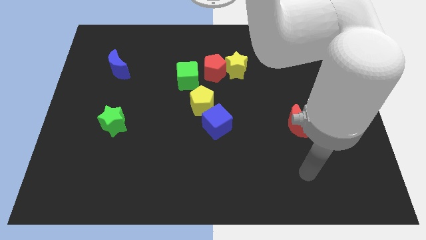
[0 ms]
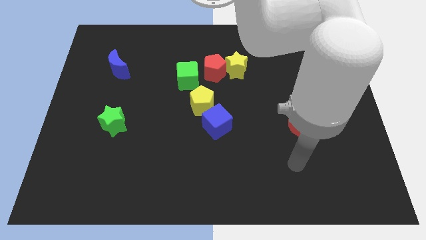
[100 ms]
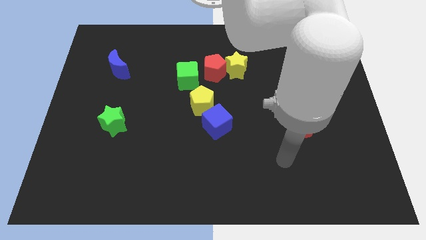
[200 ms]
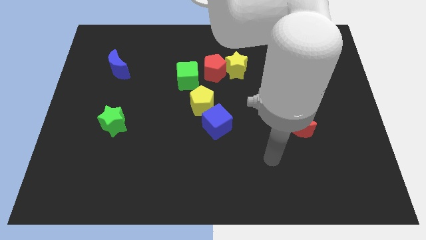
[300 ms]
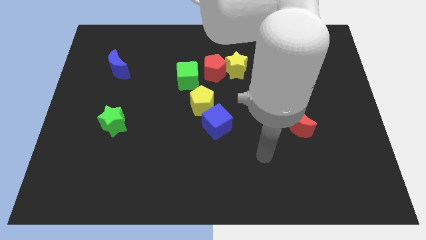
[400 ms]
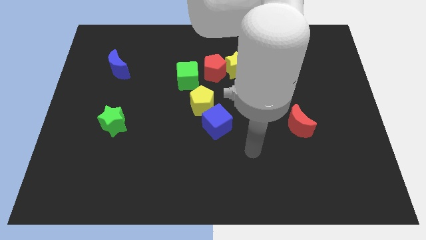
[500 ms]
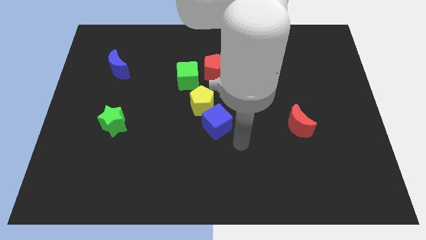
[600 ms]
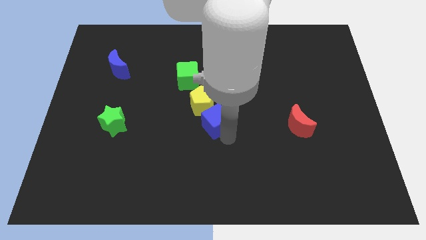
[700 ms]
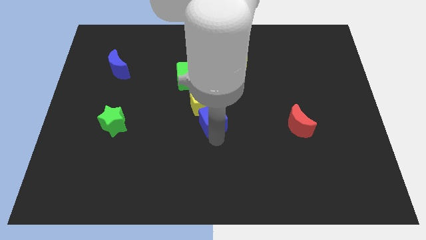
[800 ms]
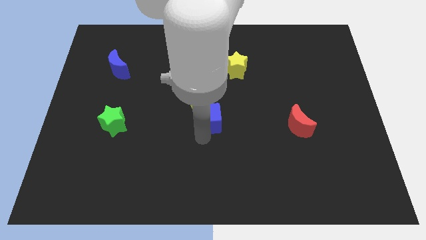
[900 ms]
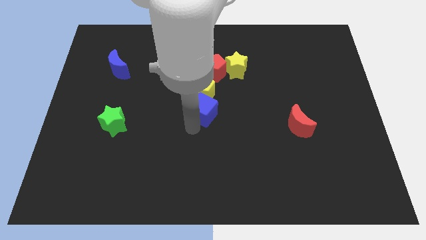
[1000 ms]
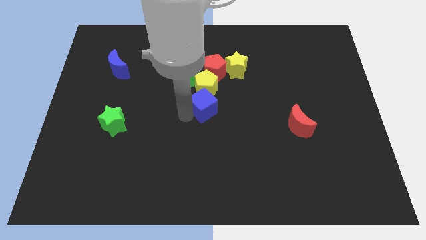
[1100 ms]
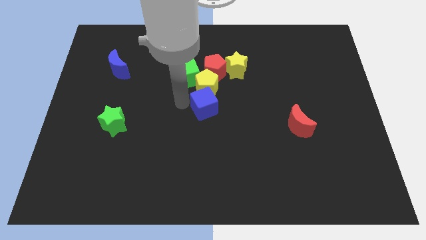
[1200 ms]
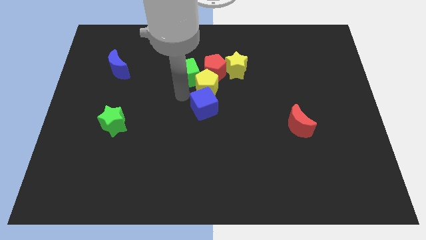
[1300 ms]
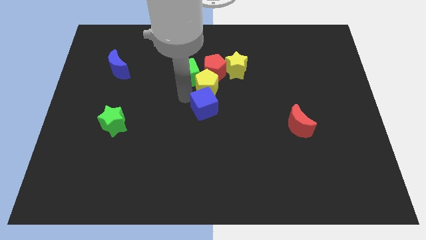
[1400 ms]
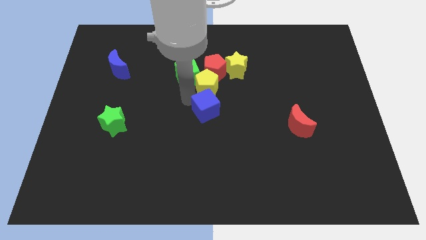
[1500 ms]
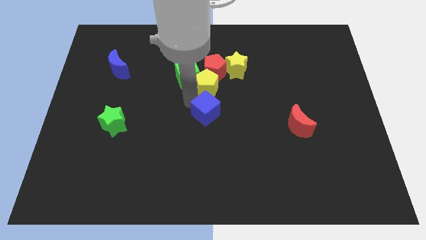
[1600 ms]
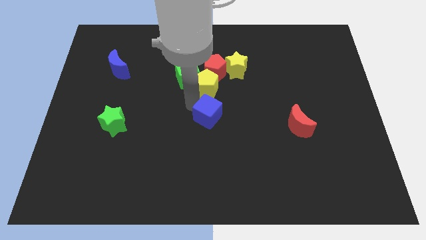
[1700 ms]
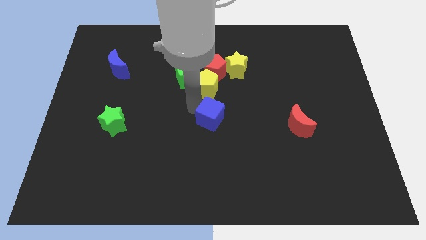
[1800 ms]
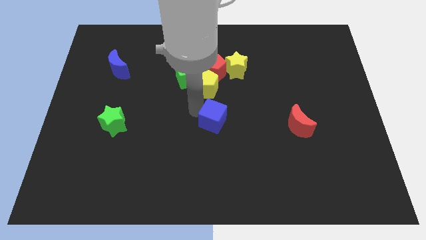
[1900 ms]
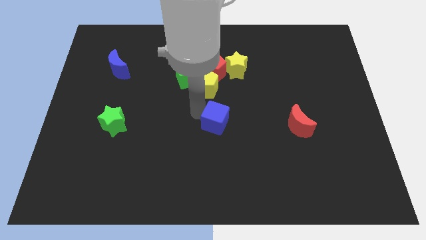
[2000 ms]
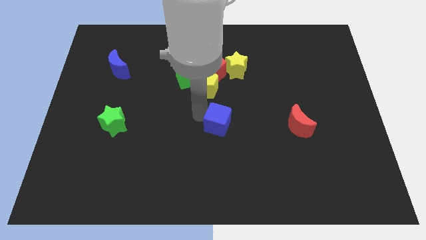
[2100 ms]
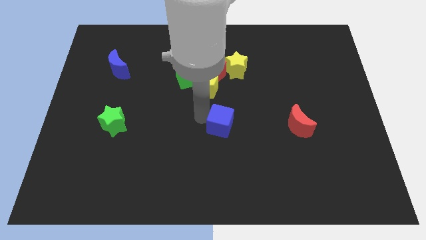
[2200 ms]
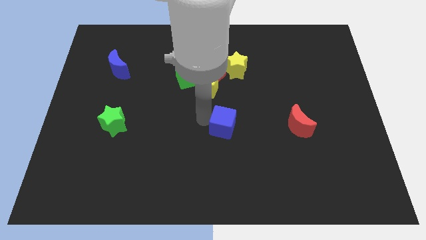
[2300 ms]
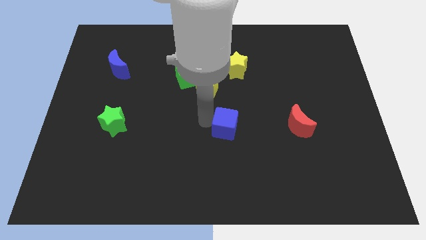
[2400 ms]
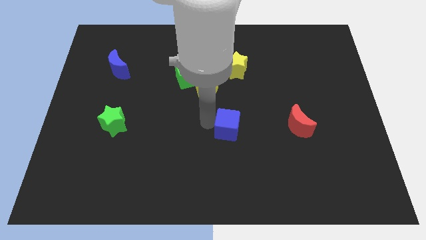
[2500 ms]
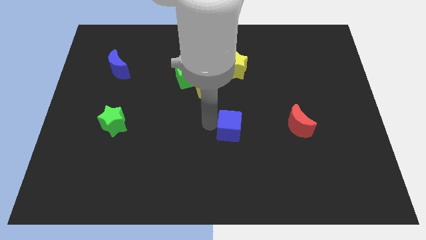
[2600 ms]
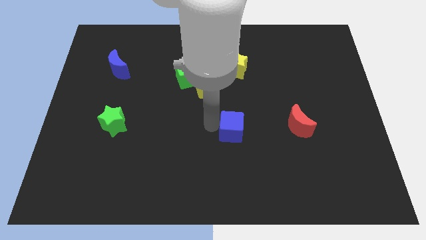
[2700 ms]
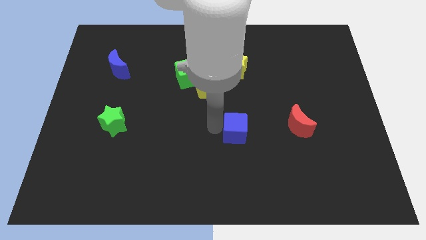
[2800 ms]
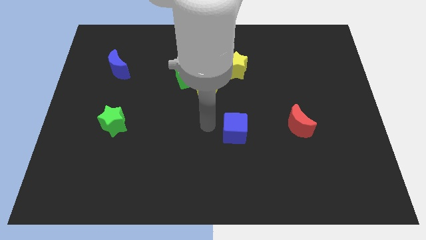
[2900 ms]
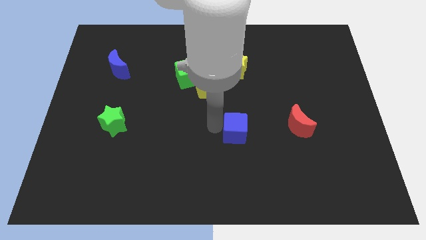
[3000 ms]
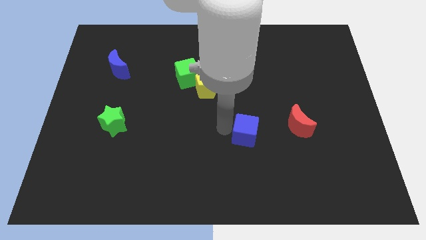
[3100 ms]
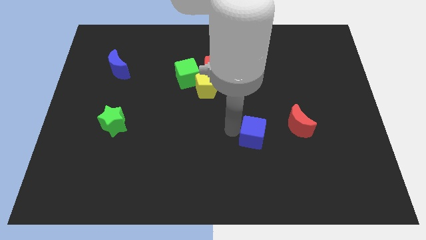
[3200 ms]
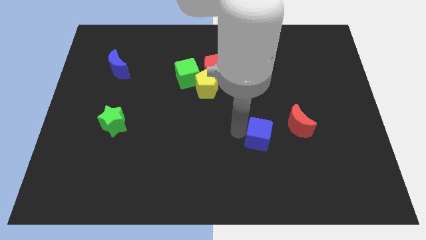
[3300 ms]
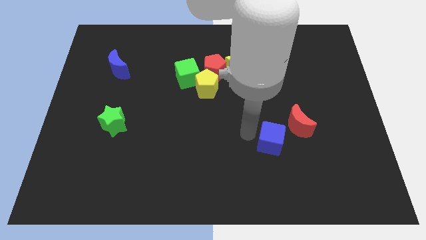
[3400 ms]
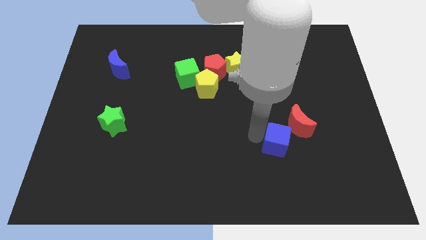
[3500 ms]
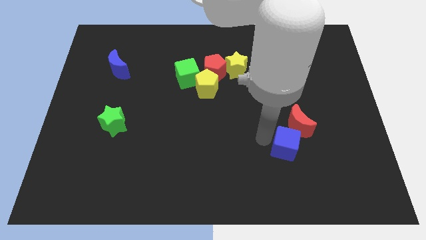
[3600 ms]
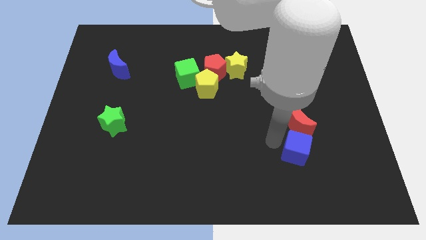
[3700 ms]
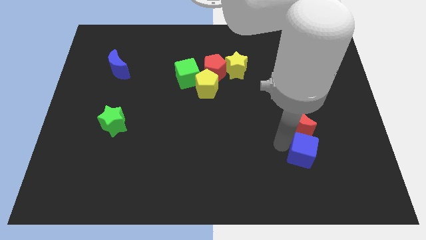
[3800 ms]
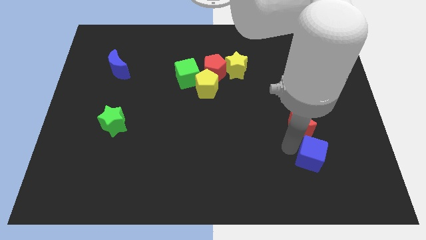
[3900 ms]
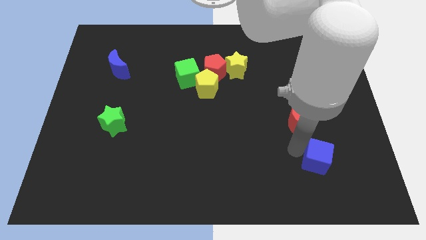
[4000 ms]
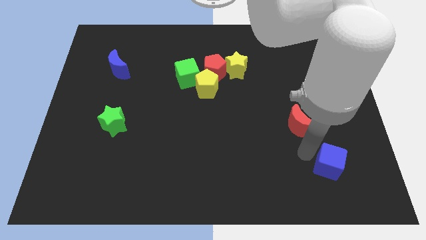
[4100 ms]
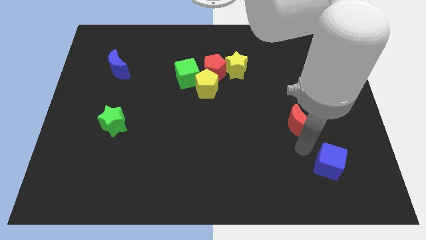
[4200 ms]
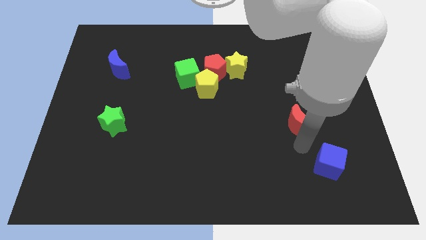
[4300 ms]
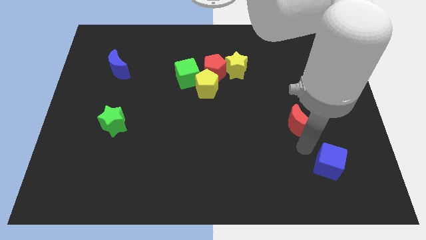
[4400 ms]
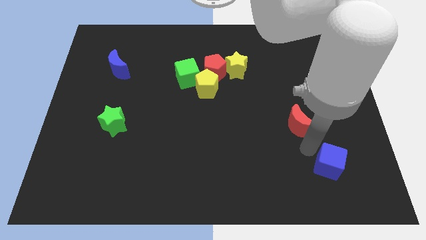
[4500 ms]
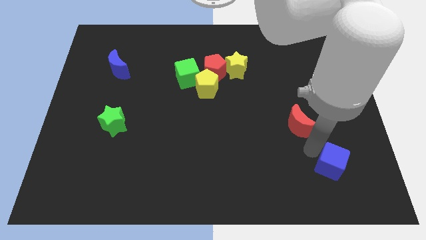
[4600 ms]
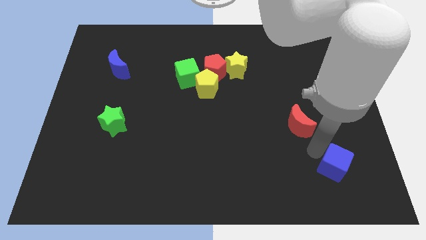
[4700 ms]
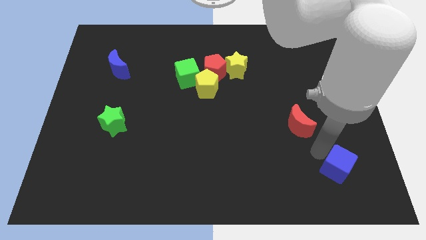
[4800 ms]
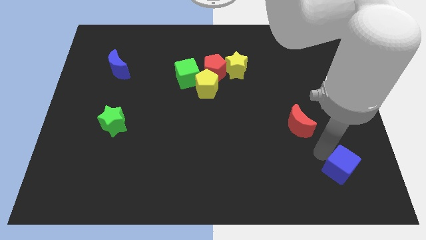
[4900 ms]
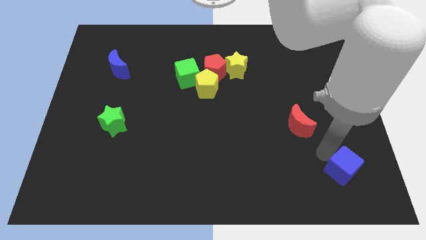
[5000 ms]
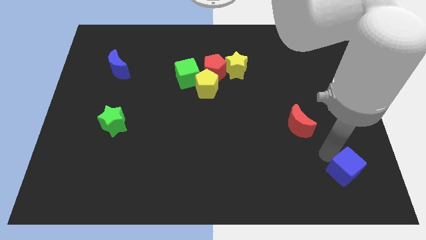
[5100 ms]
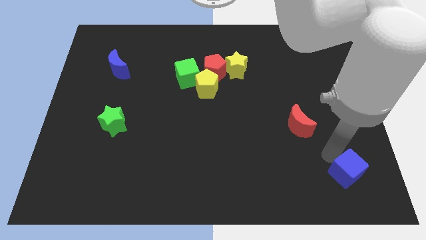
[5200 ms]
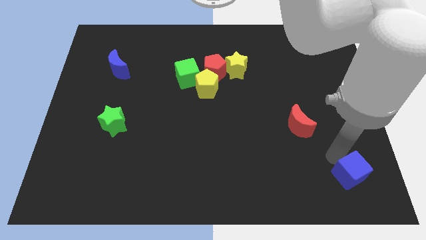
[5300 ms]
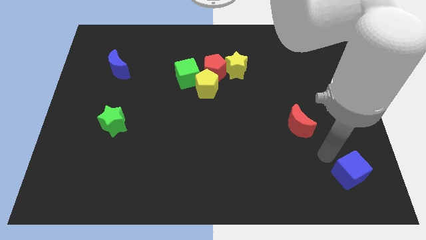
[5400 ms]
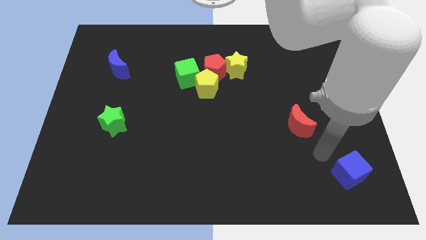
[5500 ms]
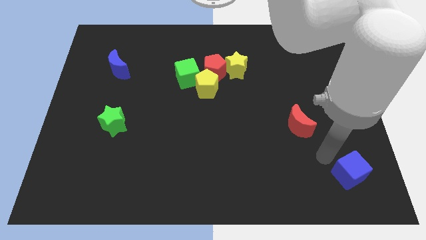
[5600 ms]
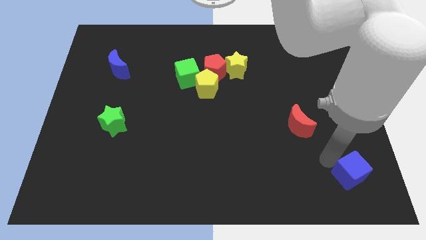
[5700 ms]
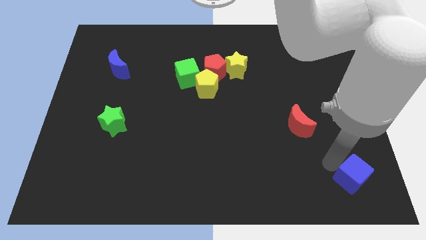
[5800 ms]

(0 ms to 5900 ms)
put the blue cube to the bottom right corner

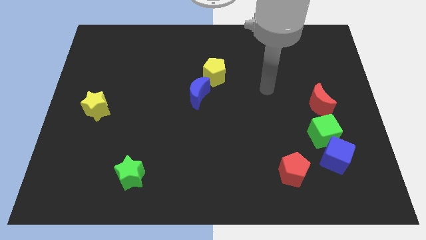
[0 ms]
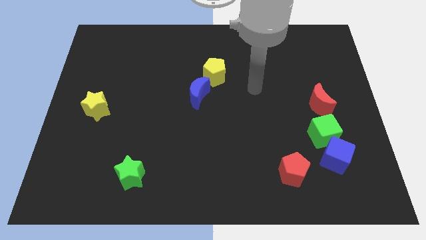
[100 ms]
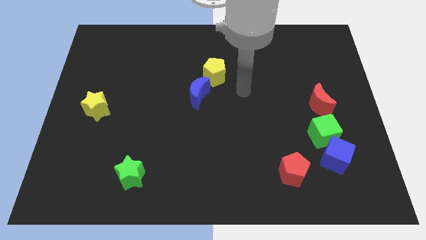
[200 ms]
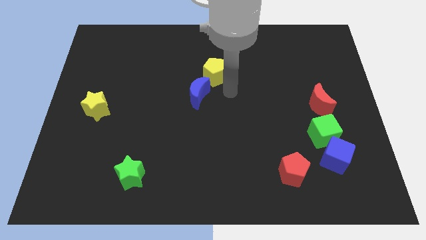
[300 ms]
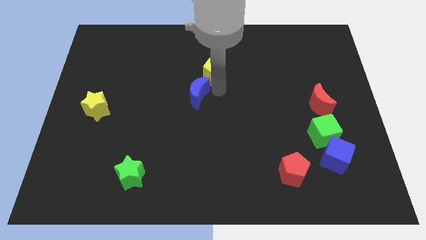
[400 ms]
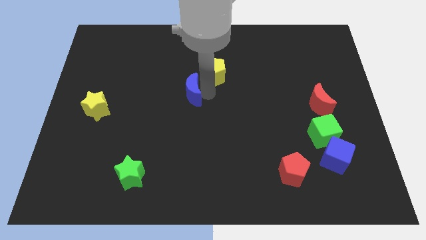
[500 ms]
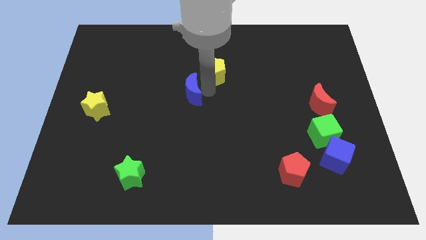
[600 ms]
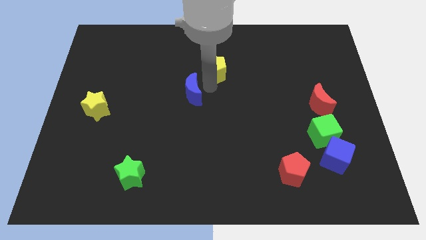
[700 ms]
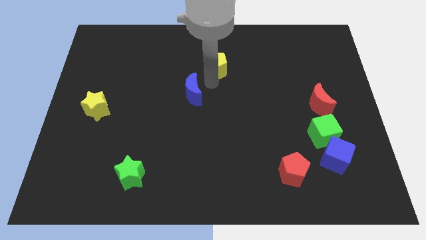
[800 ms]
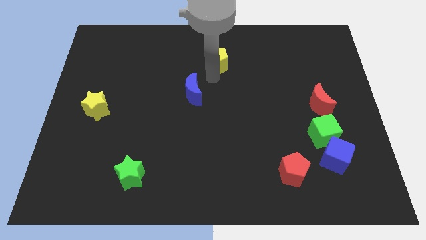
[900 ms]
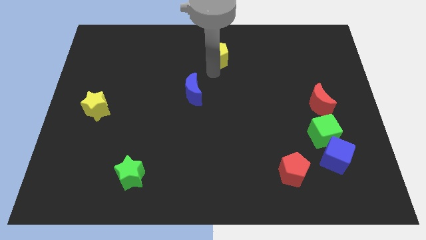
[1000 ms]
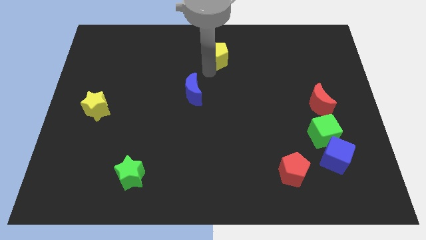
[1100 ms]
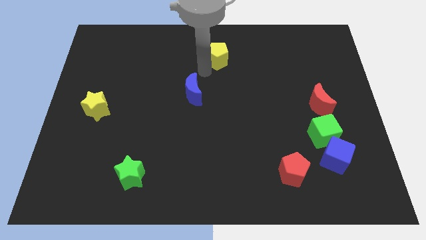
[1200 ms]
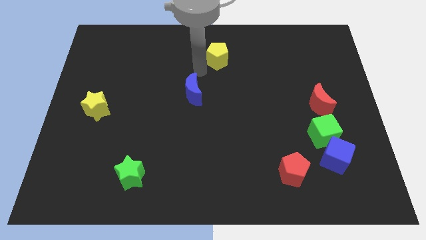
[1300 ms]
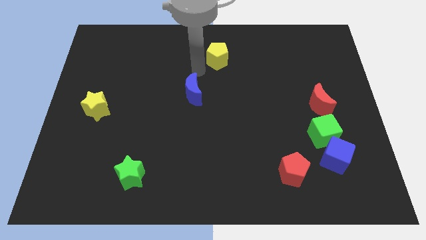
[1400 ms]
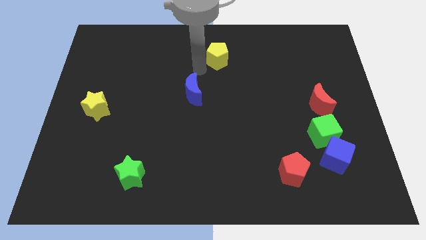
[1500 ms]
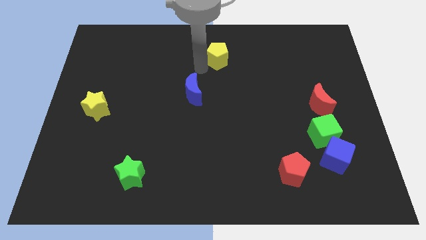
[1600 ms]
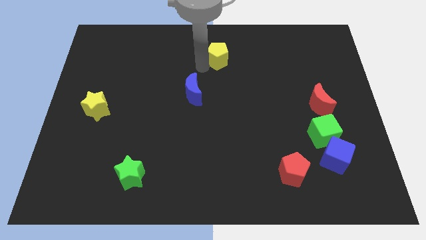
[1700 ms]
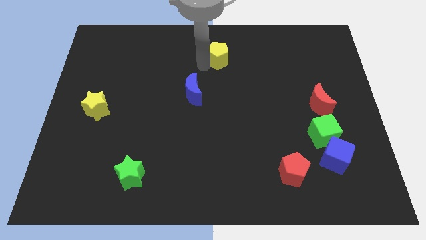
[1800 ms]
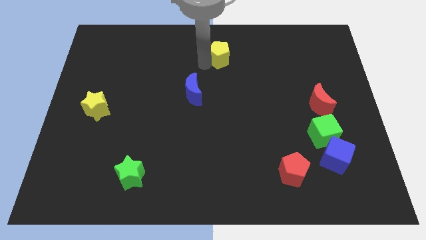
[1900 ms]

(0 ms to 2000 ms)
move the yellow pentagon to the top
